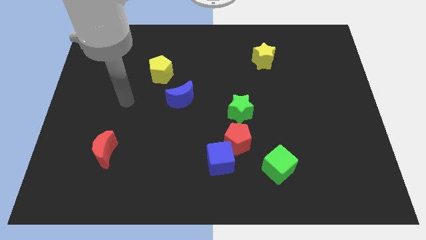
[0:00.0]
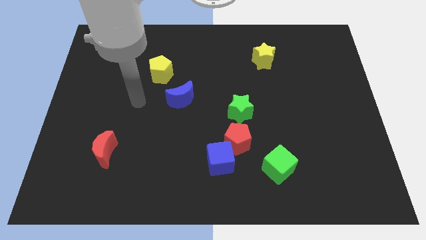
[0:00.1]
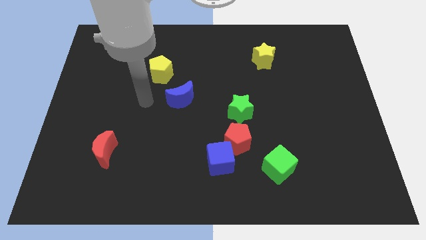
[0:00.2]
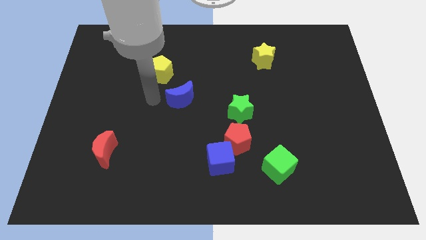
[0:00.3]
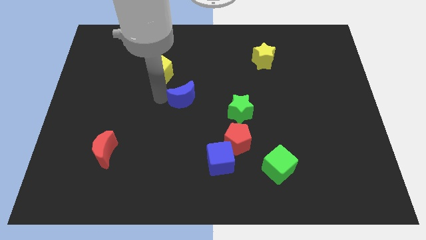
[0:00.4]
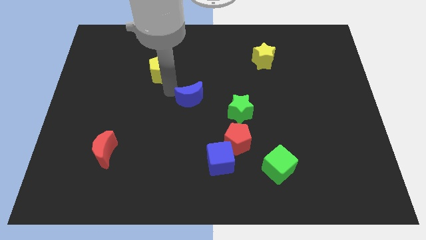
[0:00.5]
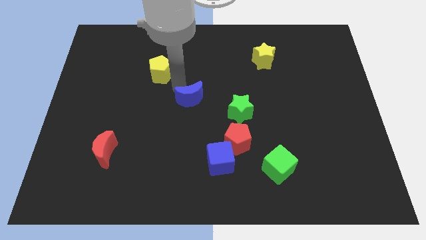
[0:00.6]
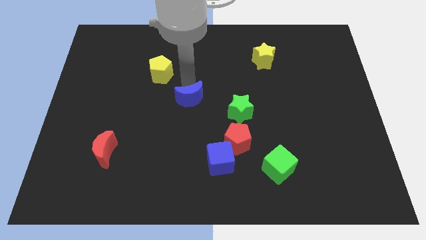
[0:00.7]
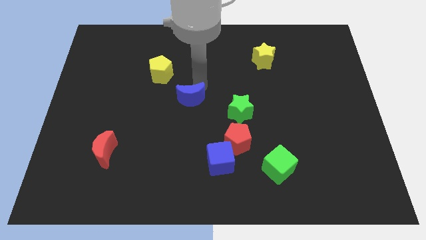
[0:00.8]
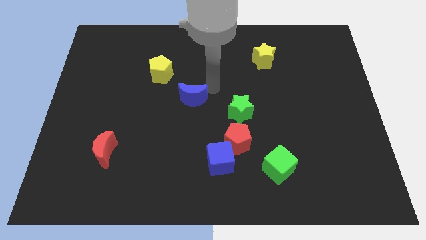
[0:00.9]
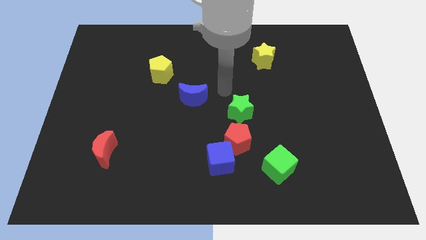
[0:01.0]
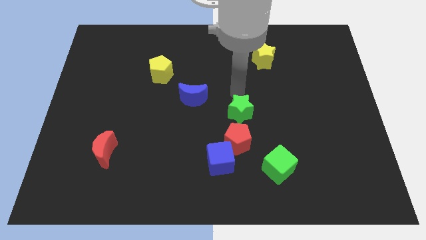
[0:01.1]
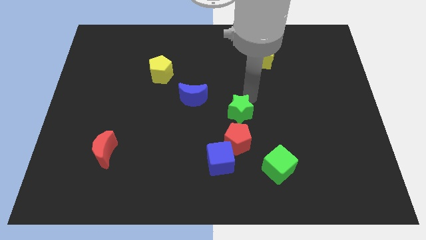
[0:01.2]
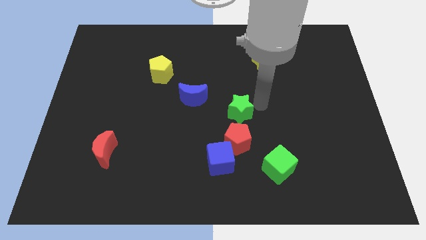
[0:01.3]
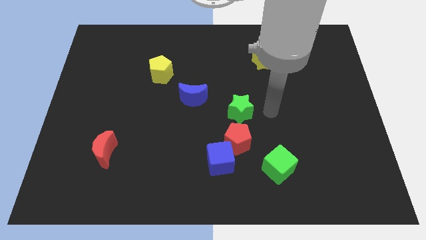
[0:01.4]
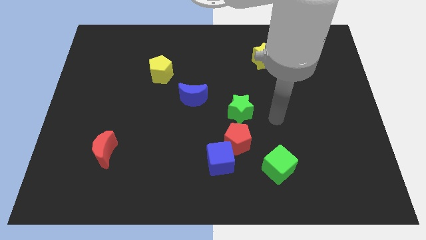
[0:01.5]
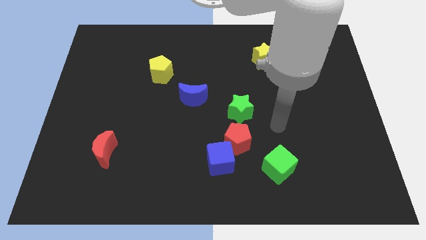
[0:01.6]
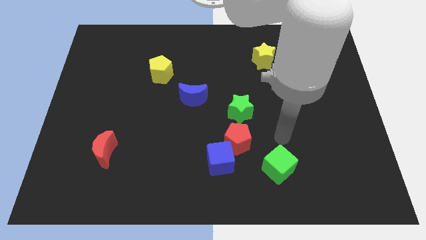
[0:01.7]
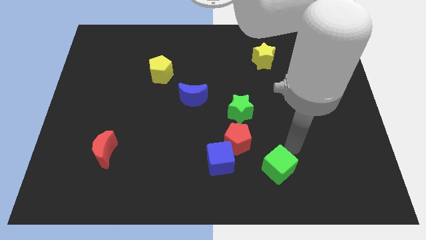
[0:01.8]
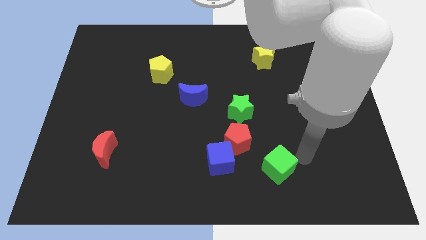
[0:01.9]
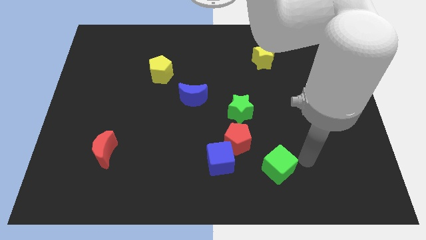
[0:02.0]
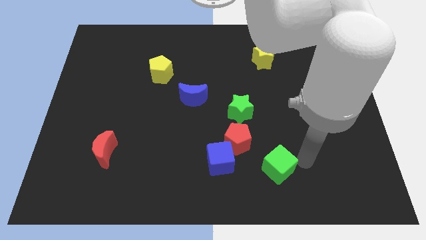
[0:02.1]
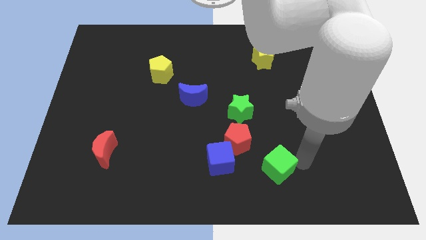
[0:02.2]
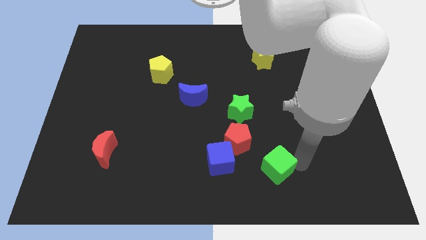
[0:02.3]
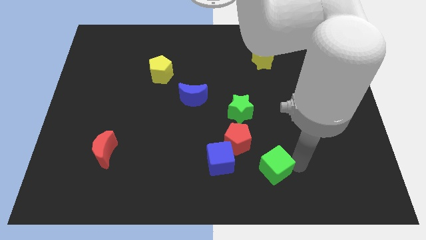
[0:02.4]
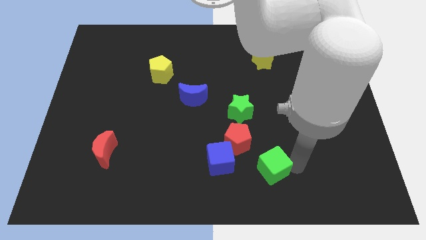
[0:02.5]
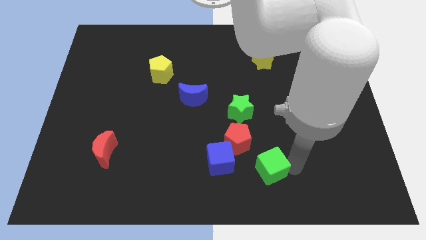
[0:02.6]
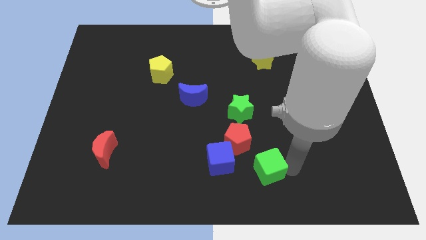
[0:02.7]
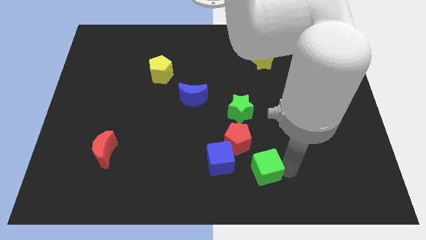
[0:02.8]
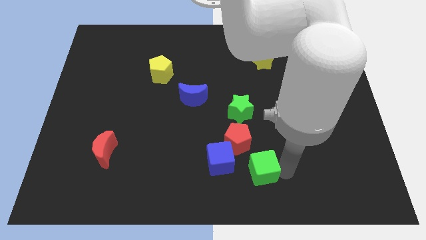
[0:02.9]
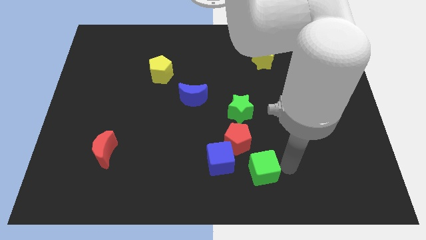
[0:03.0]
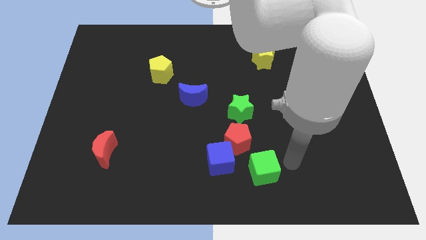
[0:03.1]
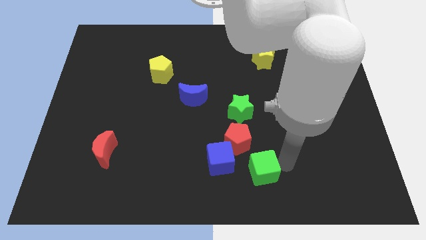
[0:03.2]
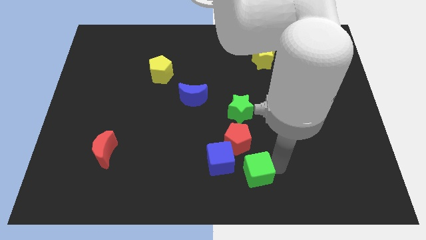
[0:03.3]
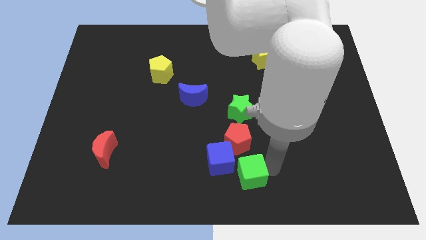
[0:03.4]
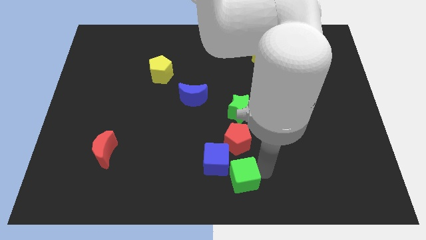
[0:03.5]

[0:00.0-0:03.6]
slide the green cube a bit left

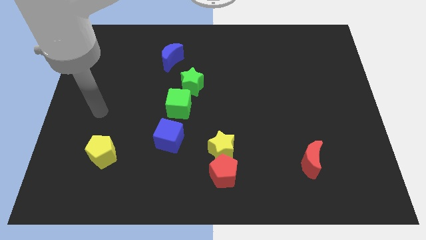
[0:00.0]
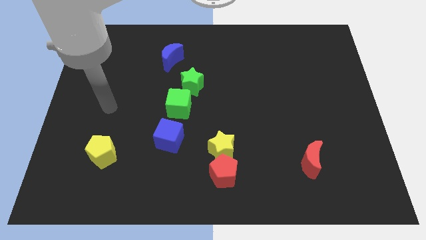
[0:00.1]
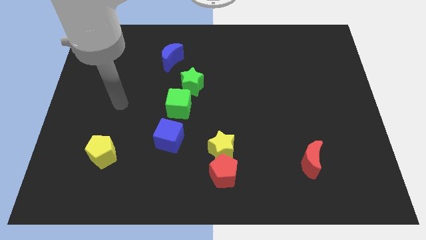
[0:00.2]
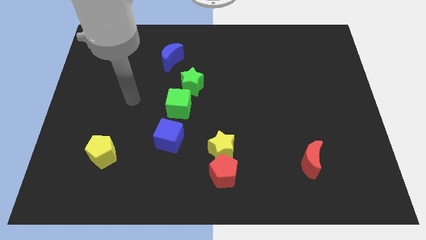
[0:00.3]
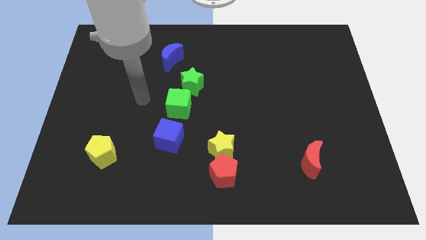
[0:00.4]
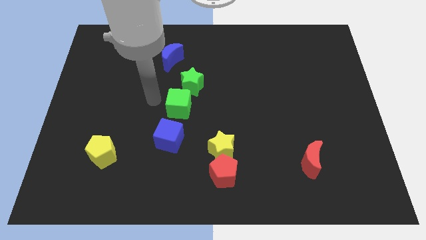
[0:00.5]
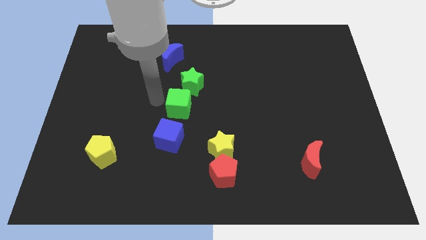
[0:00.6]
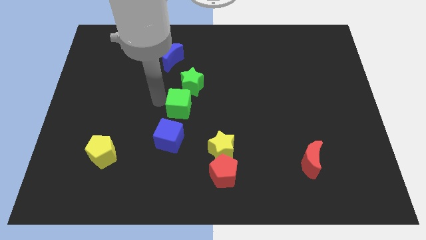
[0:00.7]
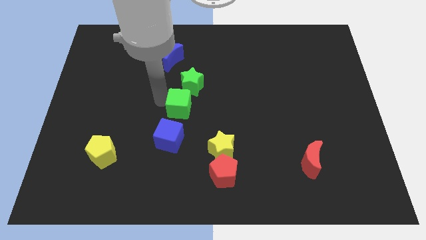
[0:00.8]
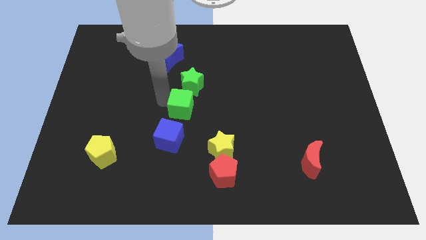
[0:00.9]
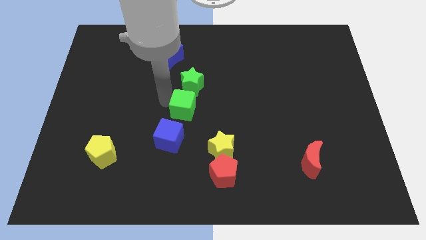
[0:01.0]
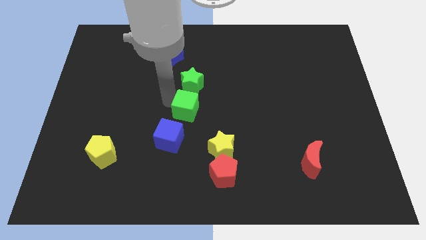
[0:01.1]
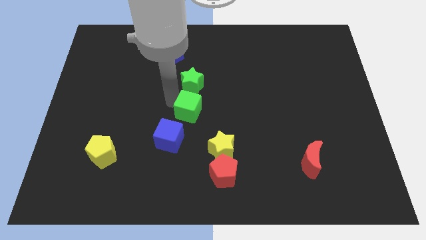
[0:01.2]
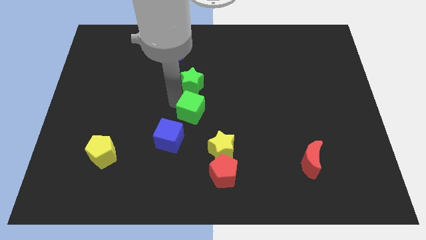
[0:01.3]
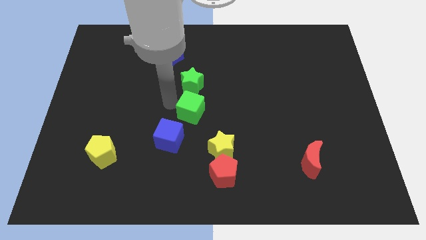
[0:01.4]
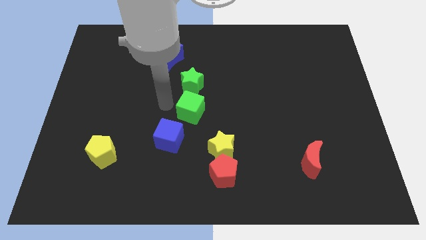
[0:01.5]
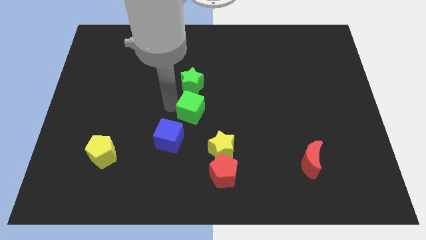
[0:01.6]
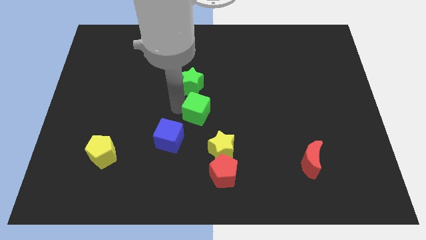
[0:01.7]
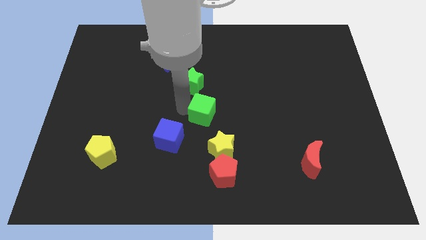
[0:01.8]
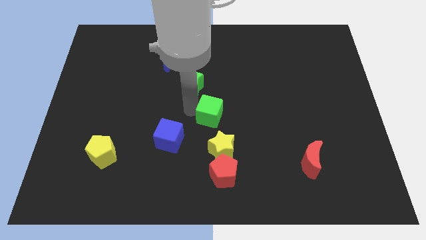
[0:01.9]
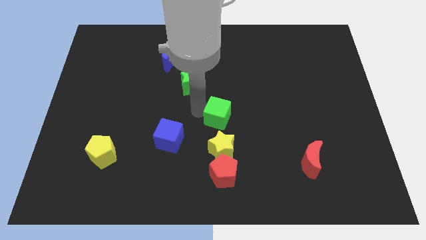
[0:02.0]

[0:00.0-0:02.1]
push the green cube diagonally downwards and to the right slightly

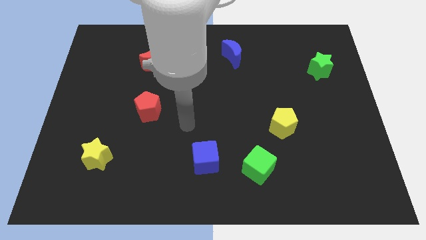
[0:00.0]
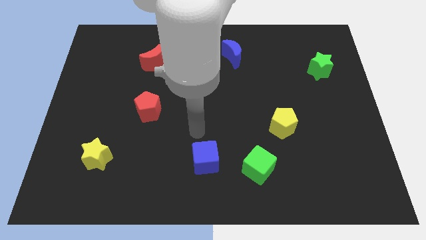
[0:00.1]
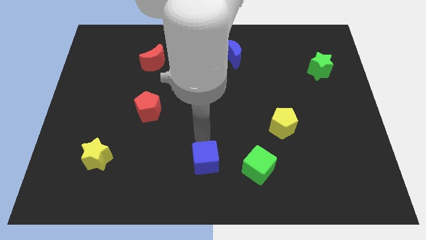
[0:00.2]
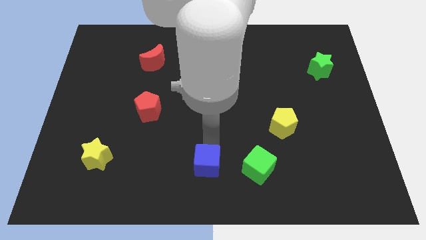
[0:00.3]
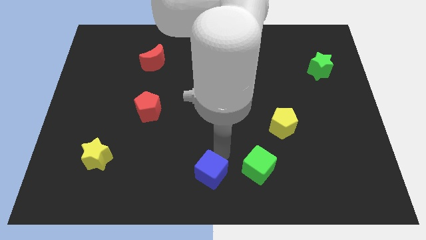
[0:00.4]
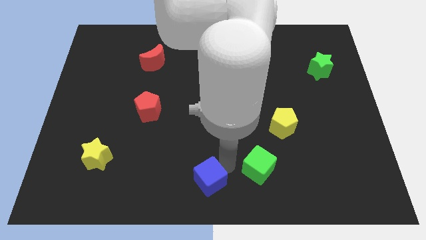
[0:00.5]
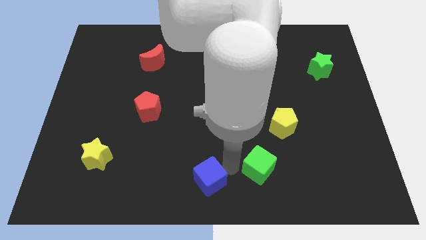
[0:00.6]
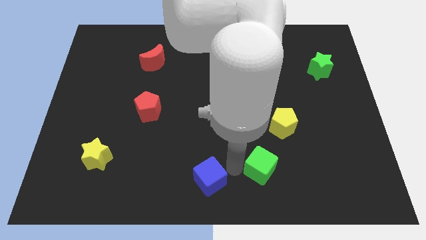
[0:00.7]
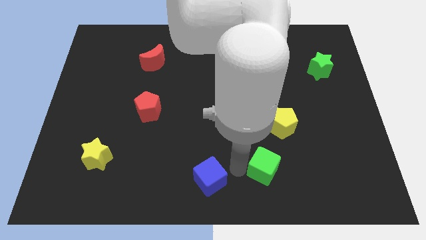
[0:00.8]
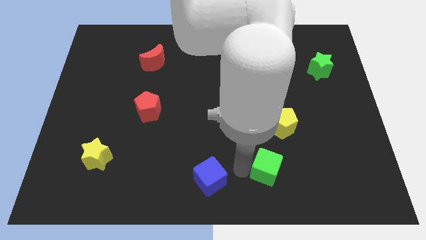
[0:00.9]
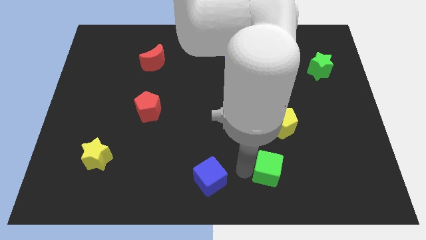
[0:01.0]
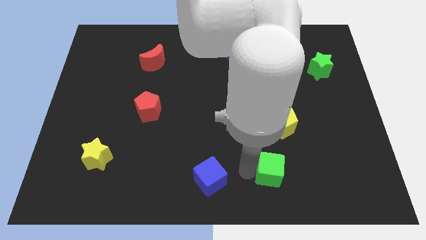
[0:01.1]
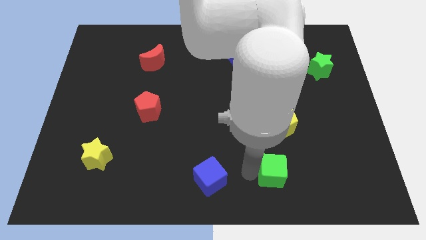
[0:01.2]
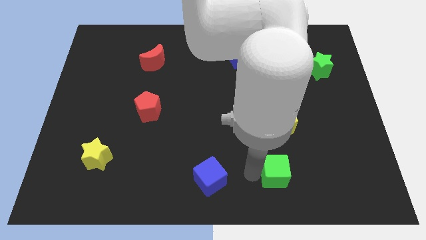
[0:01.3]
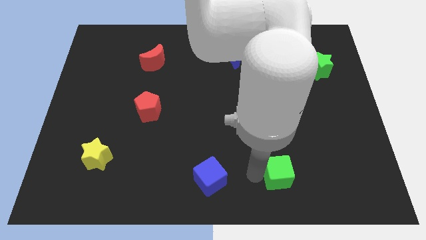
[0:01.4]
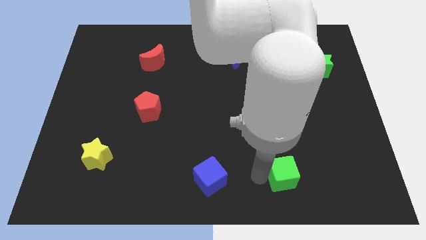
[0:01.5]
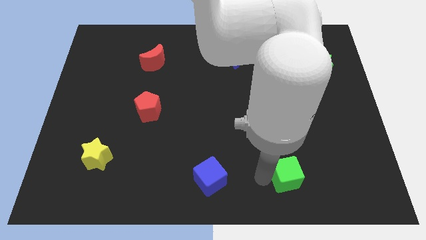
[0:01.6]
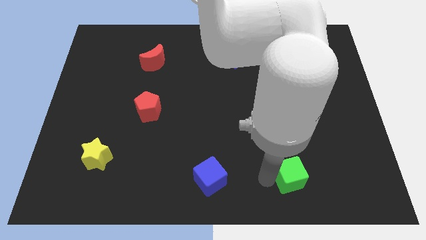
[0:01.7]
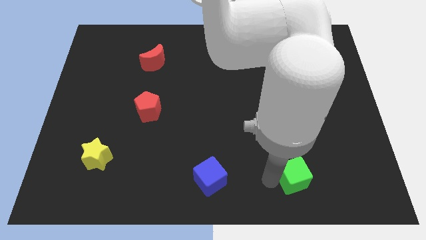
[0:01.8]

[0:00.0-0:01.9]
push the green cube right slightly

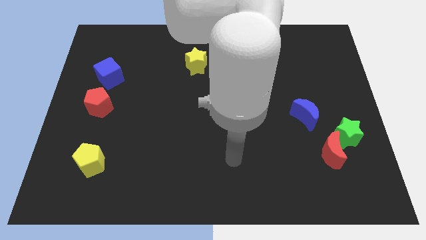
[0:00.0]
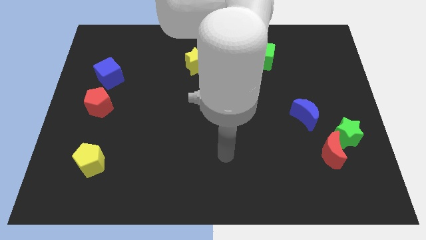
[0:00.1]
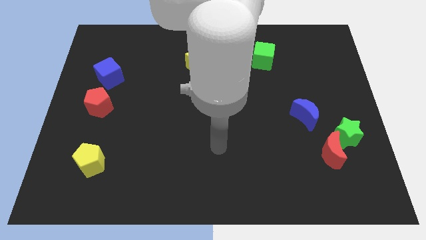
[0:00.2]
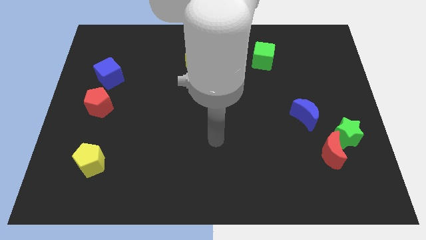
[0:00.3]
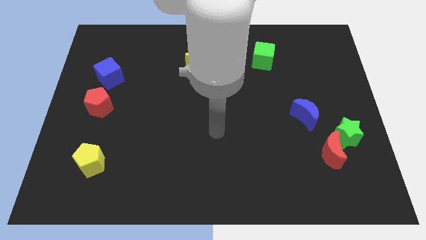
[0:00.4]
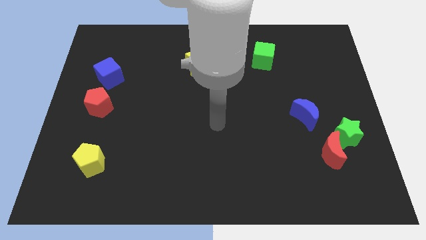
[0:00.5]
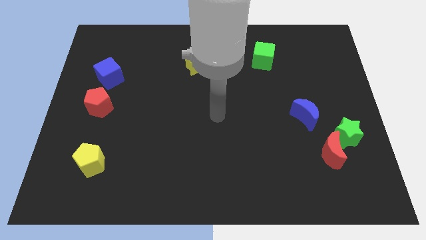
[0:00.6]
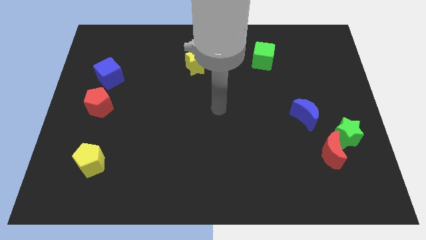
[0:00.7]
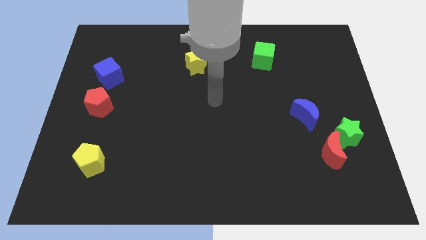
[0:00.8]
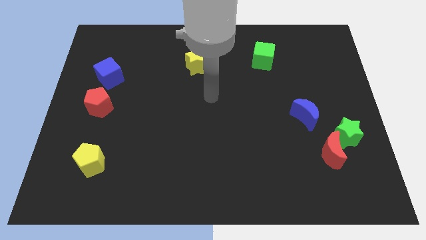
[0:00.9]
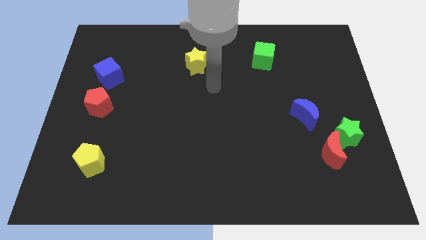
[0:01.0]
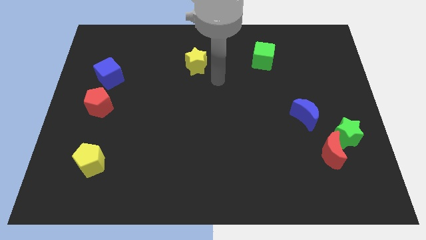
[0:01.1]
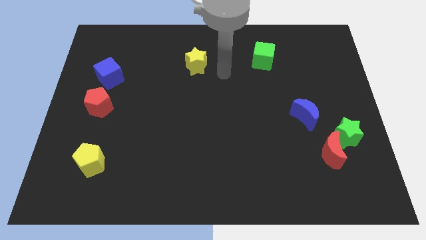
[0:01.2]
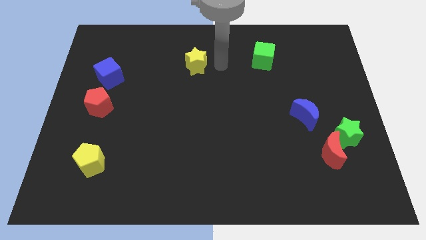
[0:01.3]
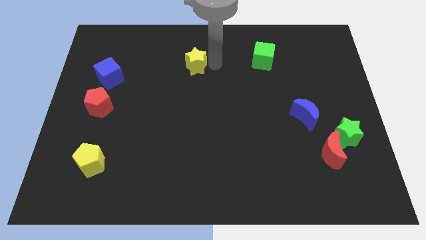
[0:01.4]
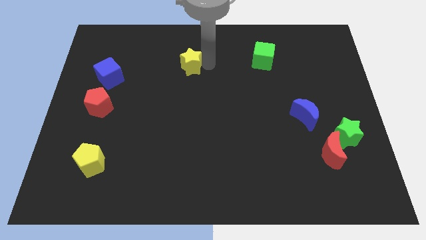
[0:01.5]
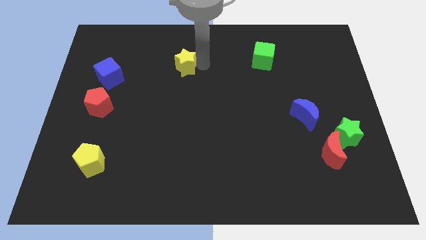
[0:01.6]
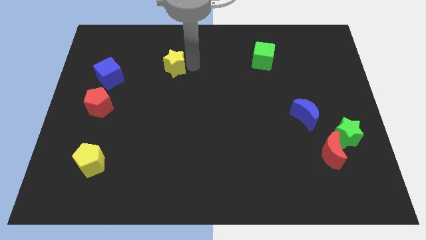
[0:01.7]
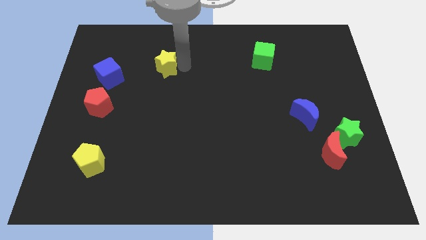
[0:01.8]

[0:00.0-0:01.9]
slide the yellow star a bit left
